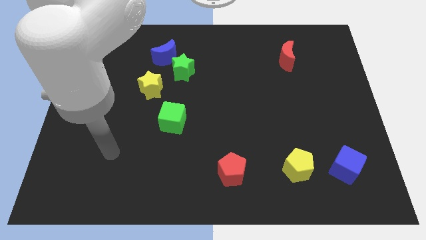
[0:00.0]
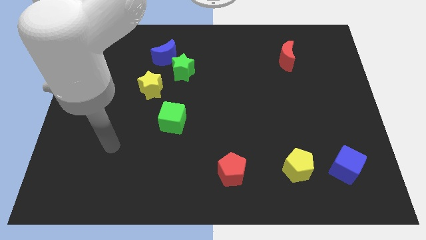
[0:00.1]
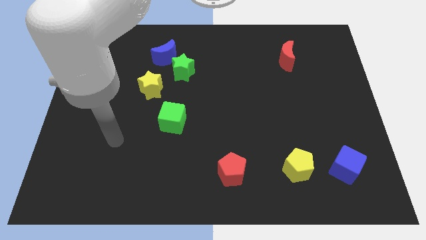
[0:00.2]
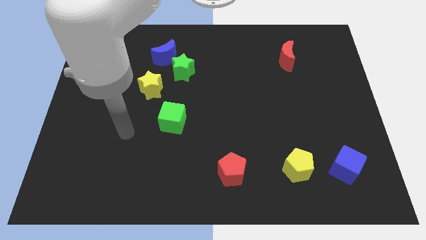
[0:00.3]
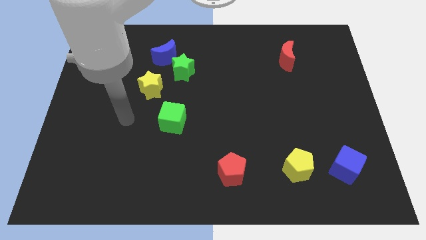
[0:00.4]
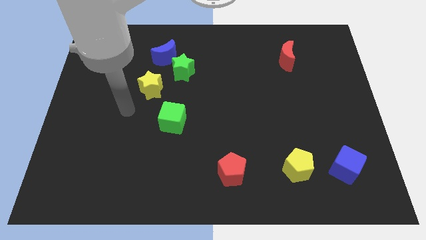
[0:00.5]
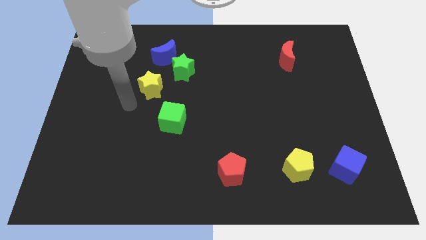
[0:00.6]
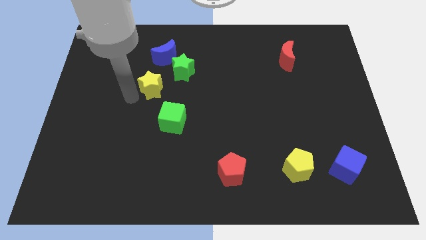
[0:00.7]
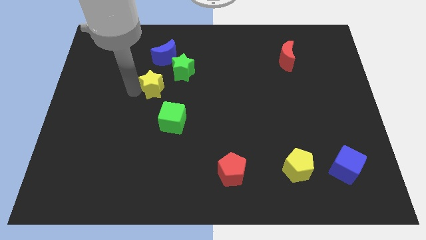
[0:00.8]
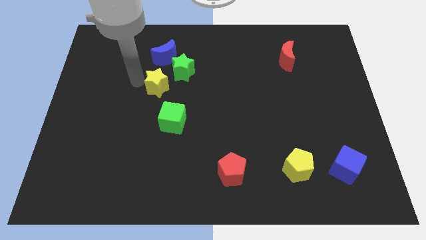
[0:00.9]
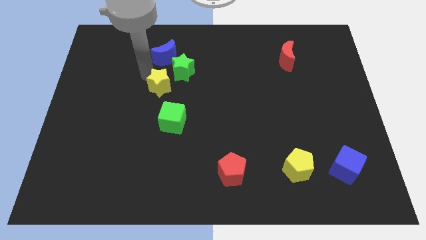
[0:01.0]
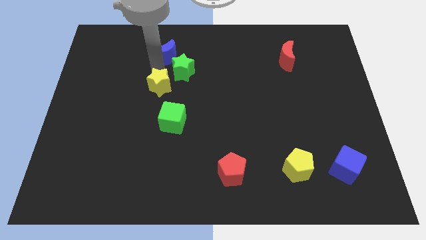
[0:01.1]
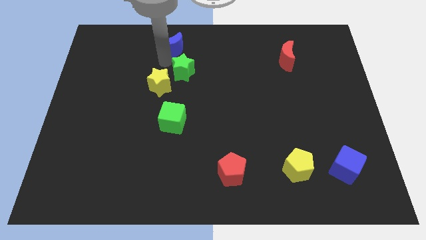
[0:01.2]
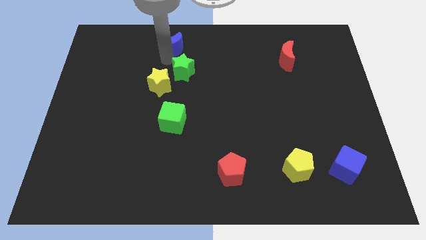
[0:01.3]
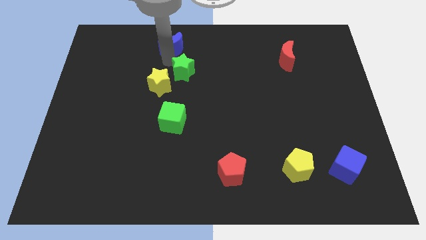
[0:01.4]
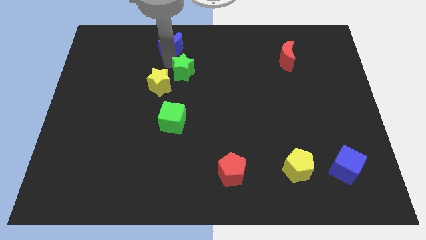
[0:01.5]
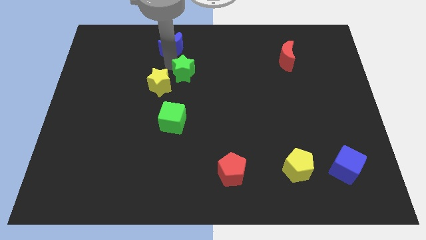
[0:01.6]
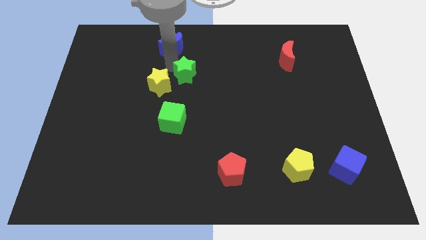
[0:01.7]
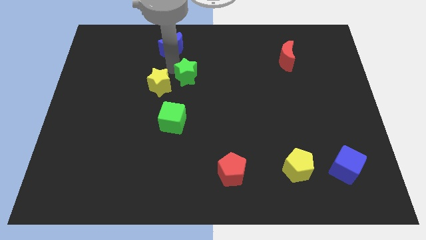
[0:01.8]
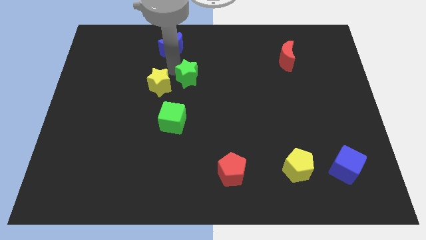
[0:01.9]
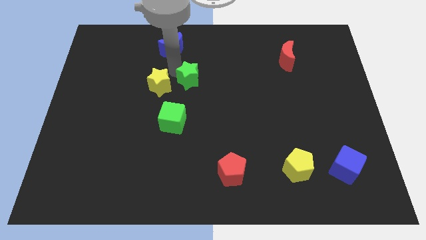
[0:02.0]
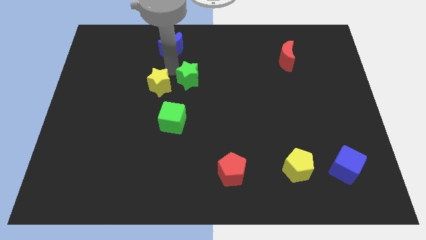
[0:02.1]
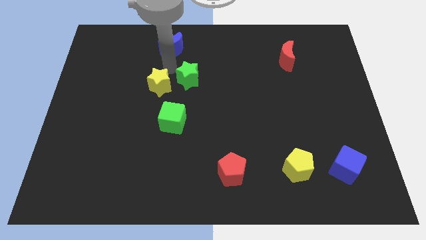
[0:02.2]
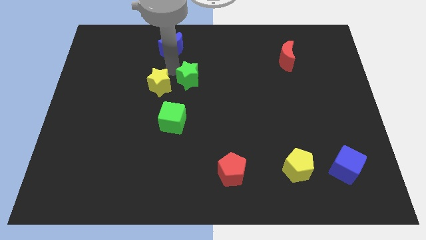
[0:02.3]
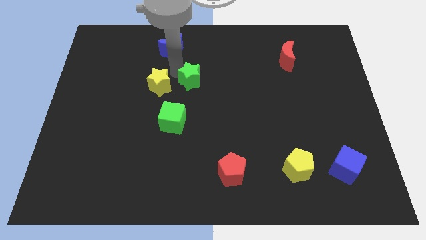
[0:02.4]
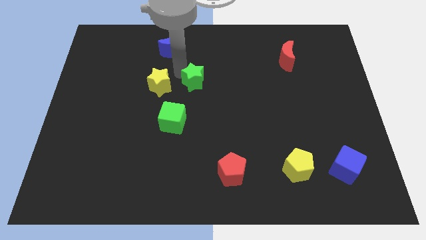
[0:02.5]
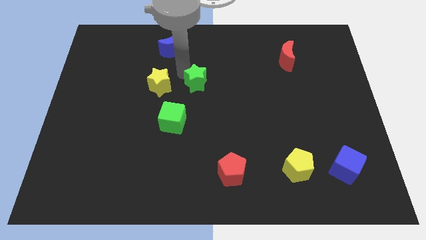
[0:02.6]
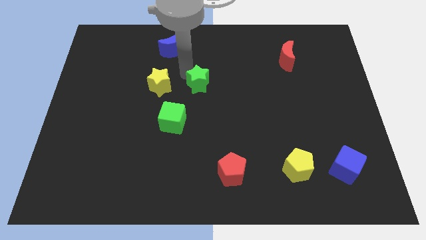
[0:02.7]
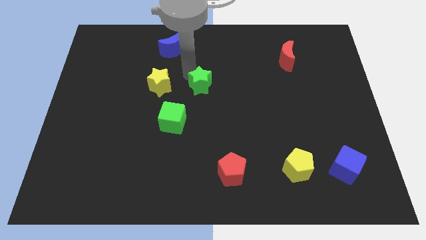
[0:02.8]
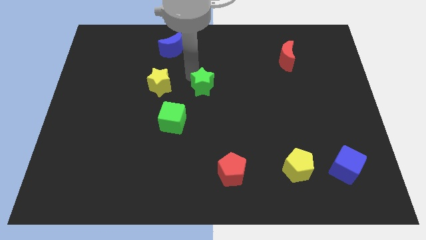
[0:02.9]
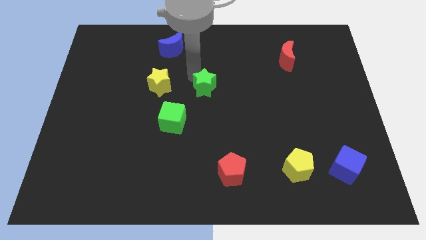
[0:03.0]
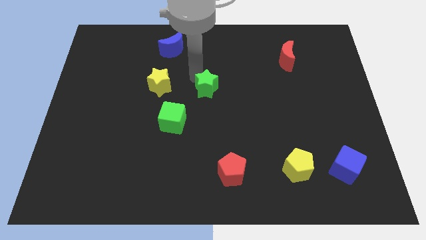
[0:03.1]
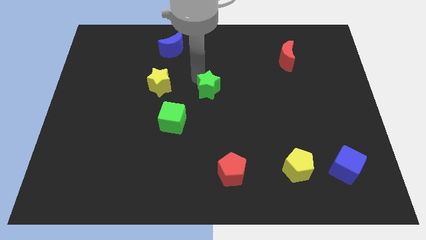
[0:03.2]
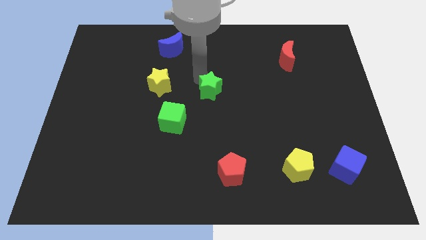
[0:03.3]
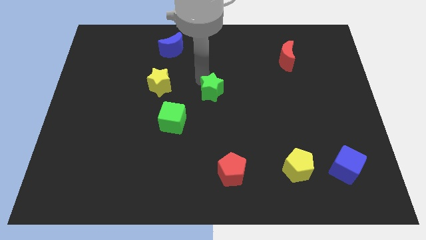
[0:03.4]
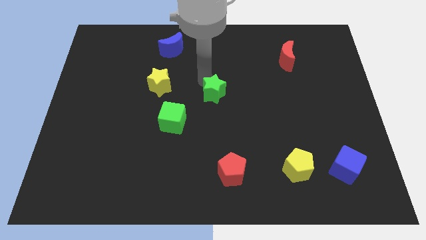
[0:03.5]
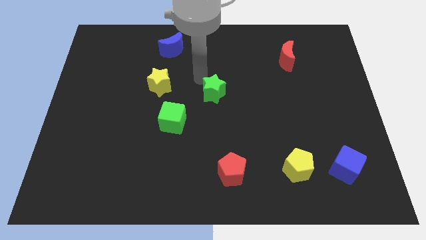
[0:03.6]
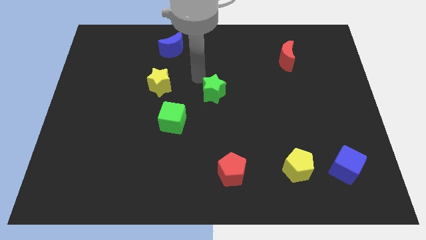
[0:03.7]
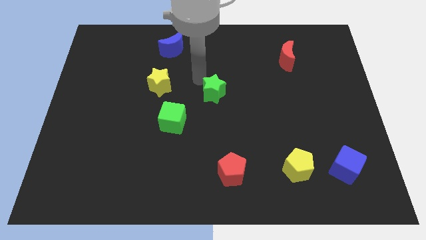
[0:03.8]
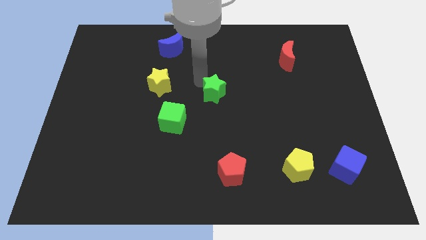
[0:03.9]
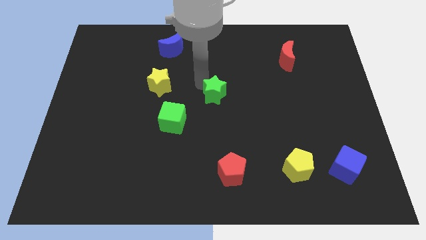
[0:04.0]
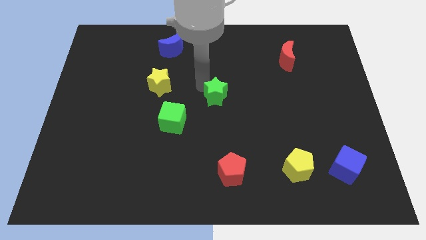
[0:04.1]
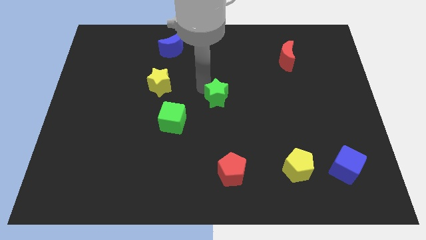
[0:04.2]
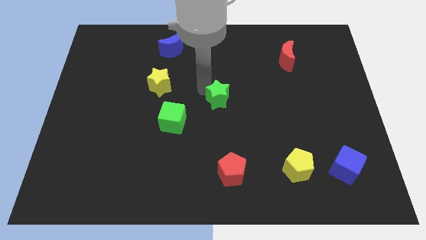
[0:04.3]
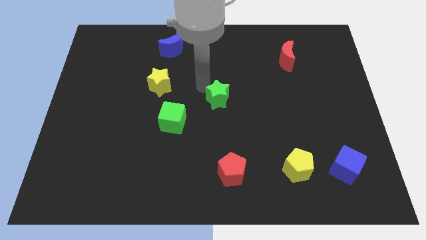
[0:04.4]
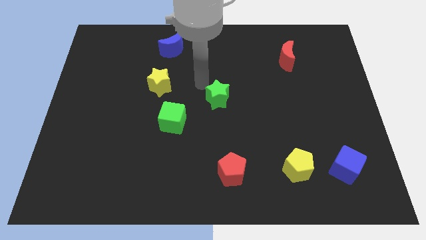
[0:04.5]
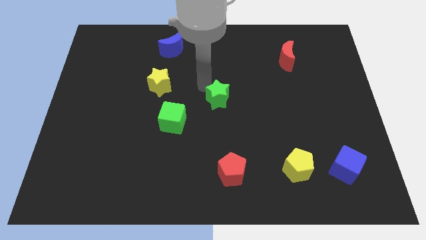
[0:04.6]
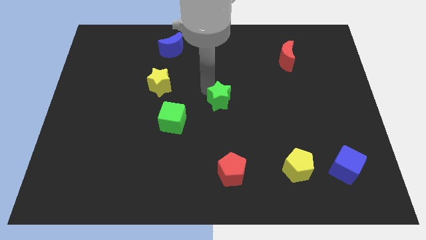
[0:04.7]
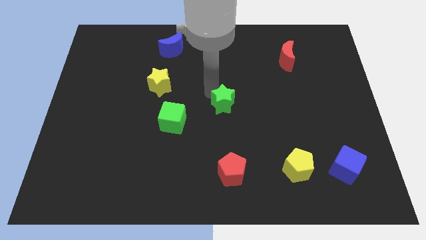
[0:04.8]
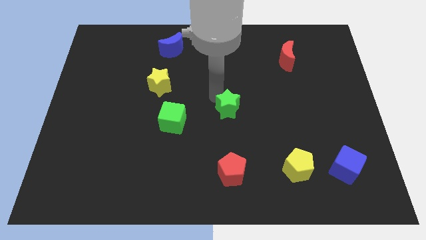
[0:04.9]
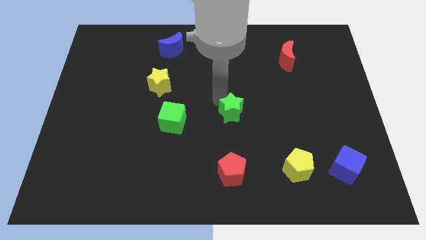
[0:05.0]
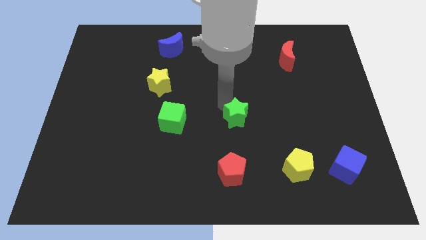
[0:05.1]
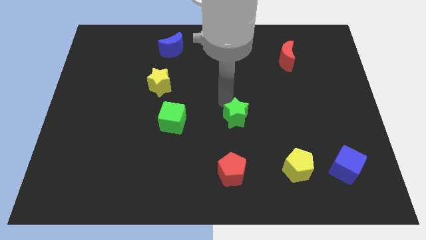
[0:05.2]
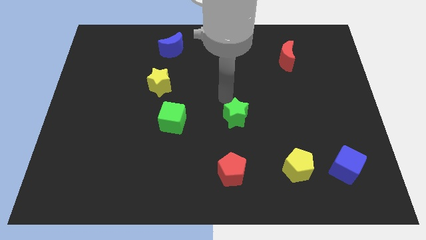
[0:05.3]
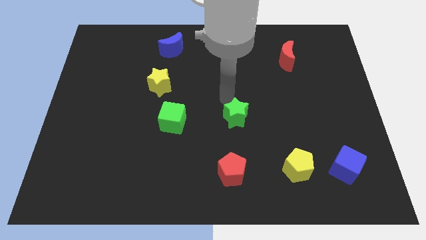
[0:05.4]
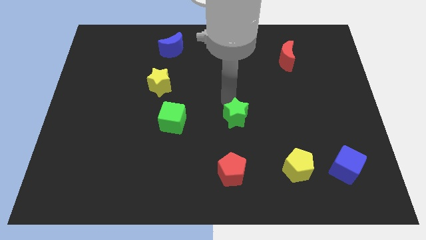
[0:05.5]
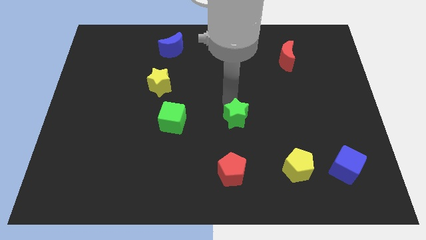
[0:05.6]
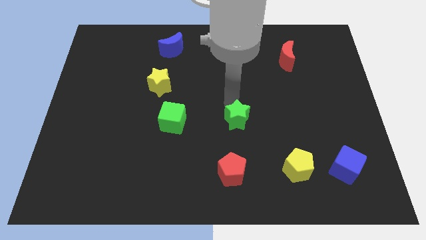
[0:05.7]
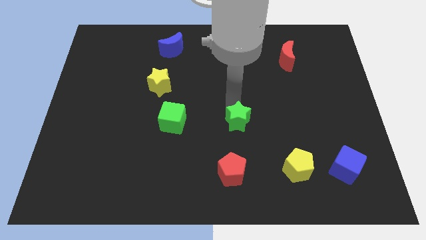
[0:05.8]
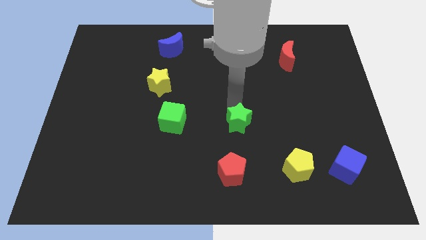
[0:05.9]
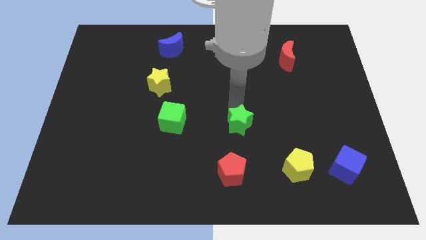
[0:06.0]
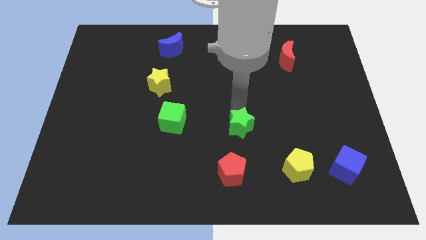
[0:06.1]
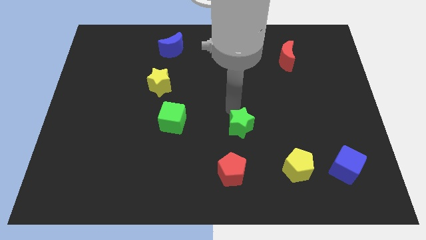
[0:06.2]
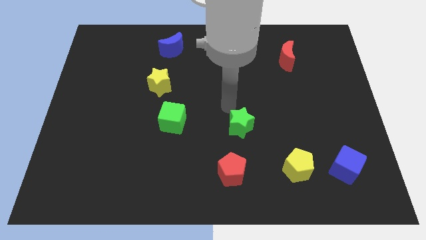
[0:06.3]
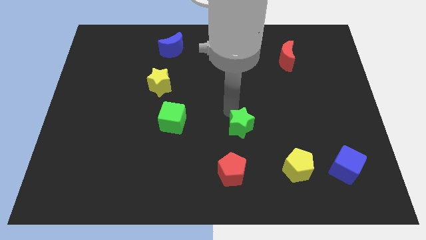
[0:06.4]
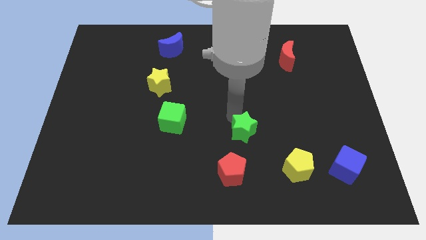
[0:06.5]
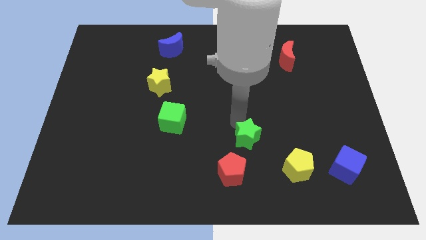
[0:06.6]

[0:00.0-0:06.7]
put the green star to the top right of the red pentagon
